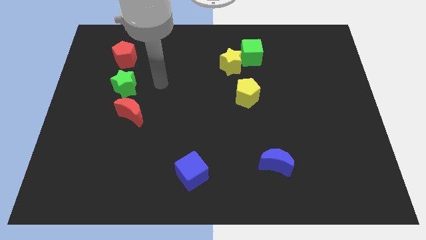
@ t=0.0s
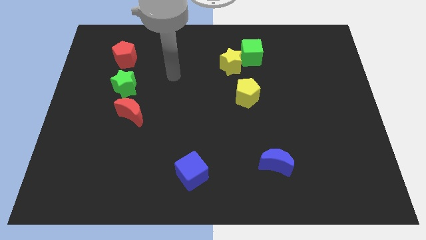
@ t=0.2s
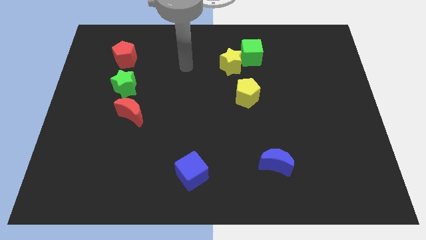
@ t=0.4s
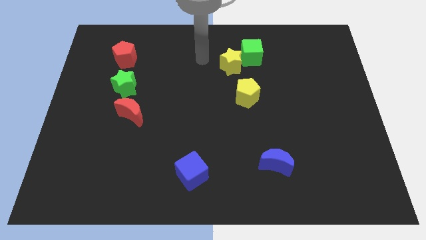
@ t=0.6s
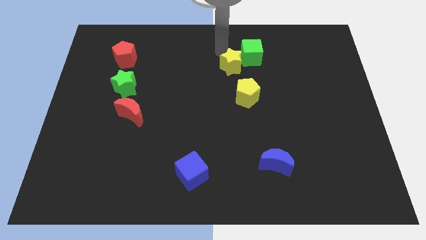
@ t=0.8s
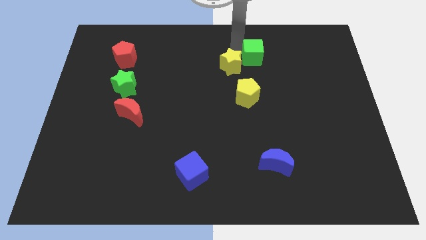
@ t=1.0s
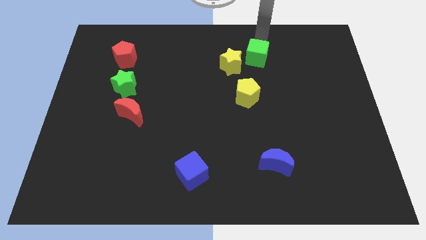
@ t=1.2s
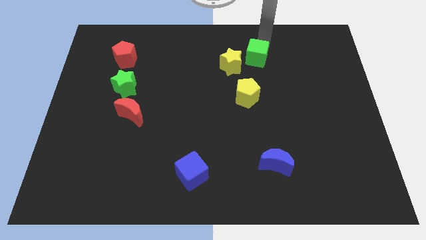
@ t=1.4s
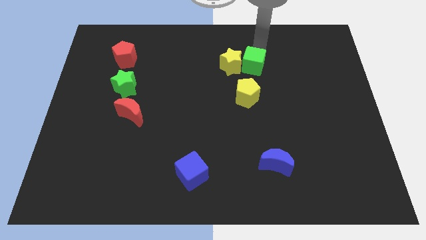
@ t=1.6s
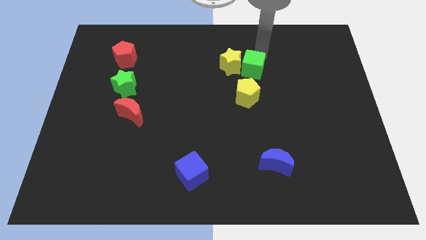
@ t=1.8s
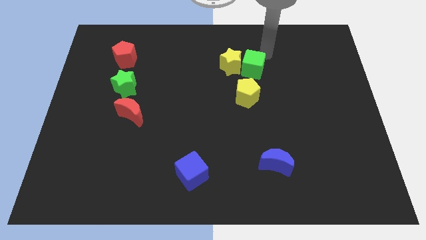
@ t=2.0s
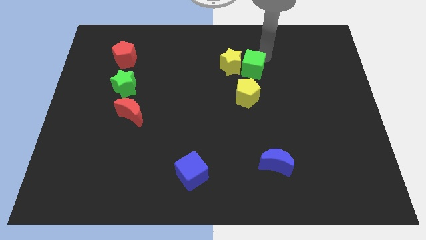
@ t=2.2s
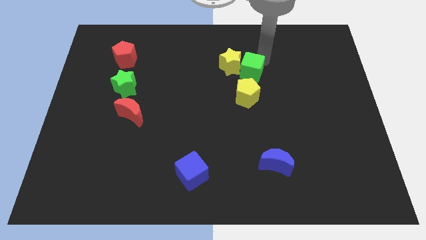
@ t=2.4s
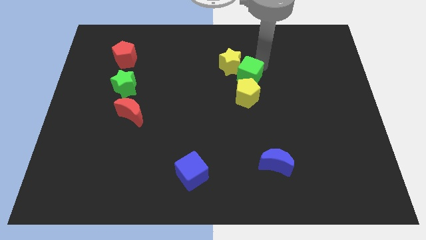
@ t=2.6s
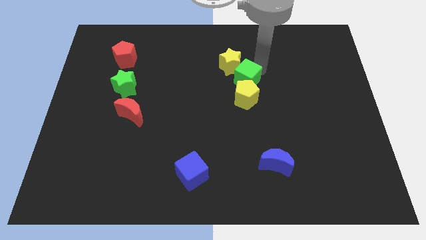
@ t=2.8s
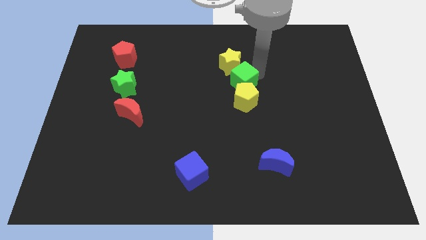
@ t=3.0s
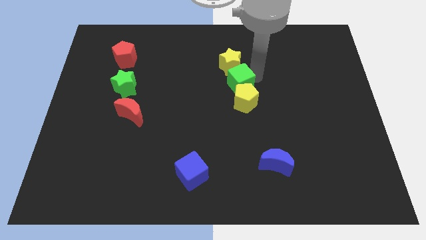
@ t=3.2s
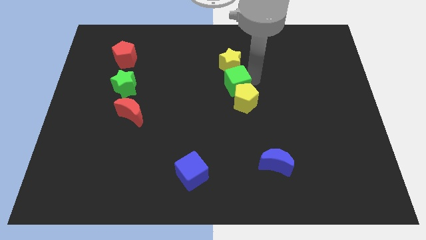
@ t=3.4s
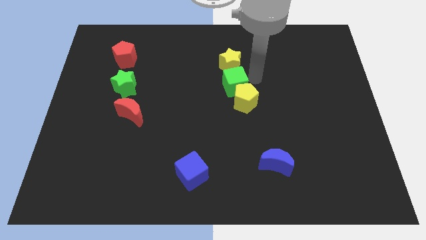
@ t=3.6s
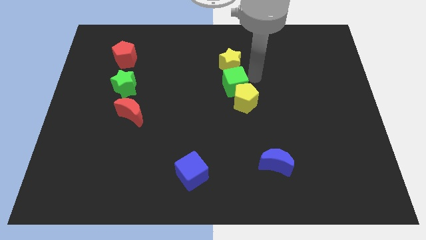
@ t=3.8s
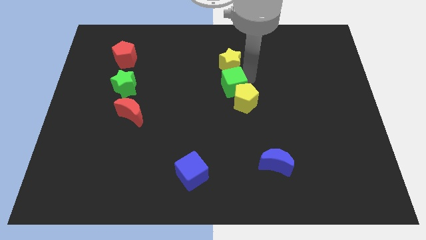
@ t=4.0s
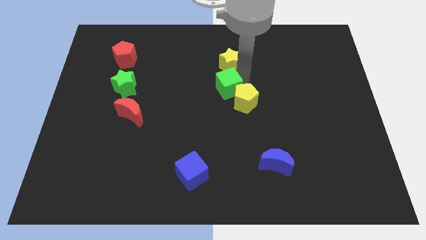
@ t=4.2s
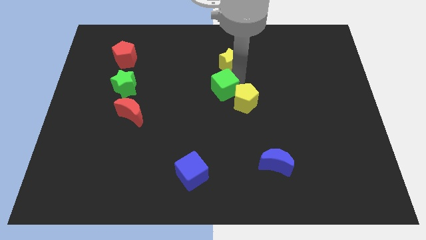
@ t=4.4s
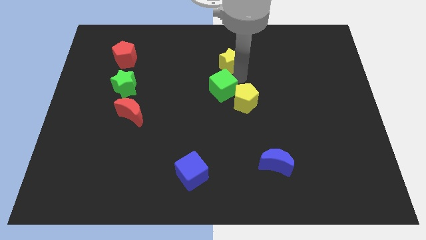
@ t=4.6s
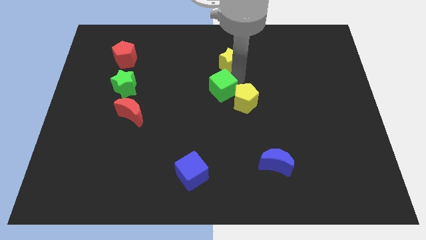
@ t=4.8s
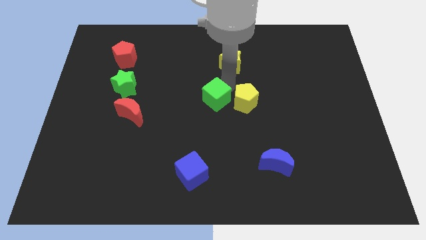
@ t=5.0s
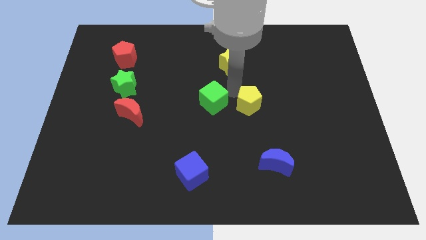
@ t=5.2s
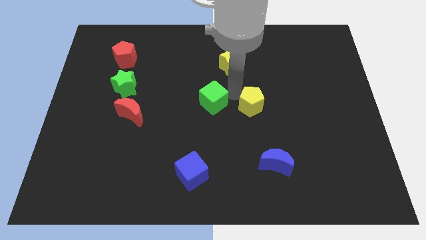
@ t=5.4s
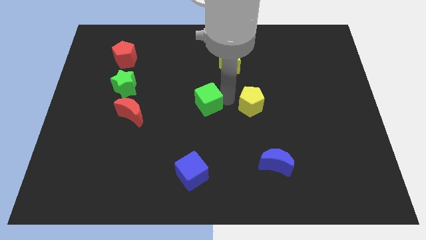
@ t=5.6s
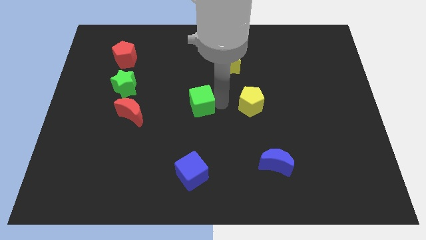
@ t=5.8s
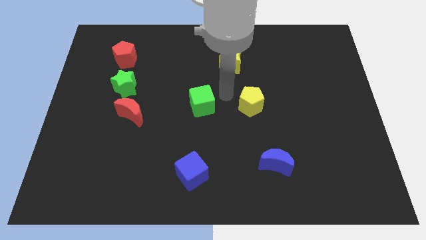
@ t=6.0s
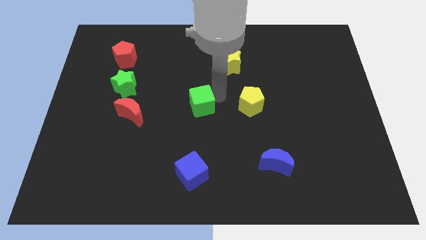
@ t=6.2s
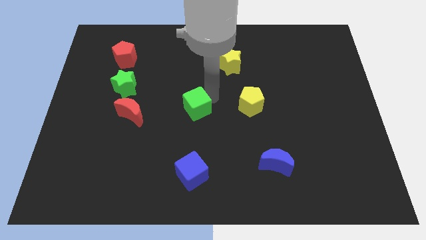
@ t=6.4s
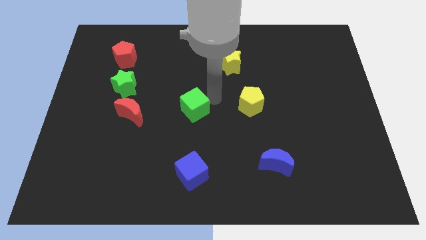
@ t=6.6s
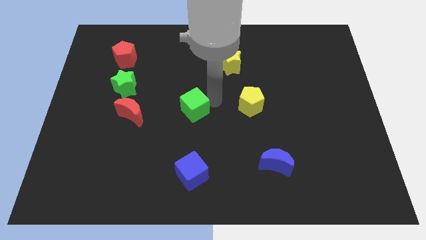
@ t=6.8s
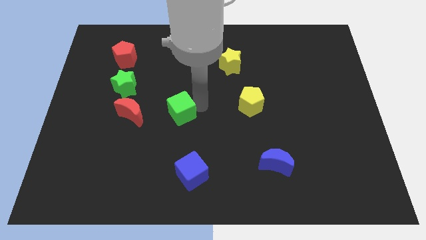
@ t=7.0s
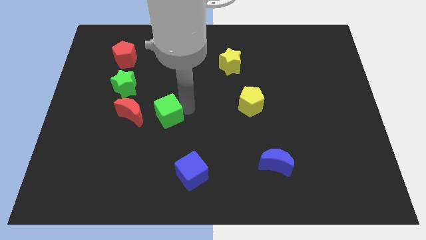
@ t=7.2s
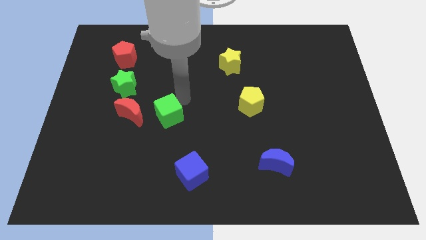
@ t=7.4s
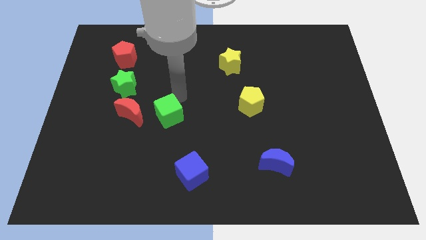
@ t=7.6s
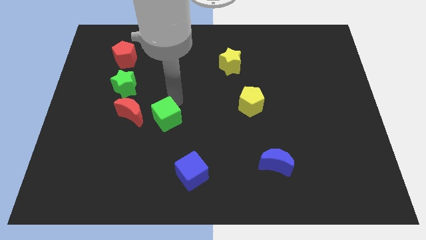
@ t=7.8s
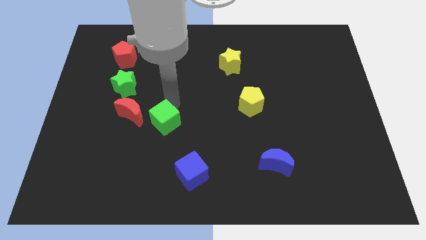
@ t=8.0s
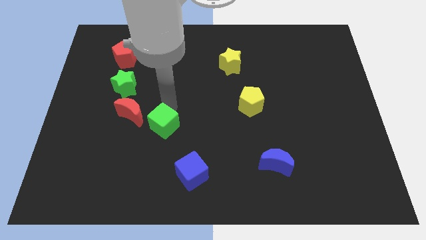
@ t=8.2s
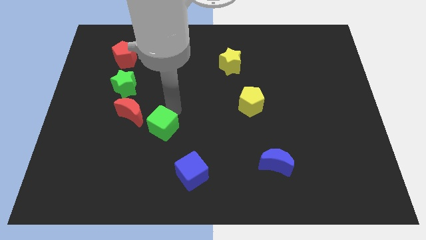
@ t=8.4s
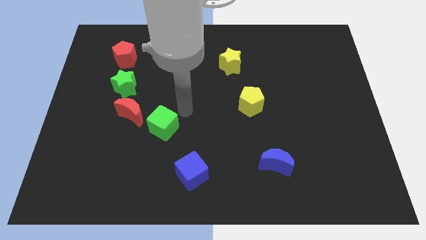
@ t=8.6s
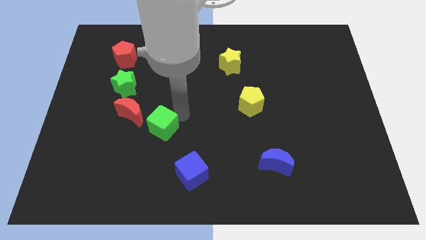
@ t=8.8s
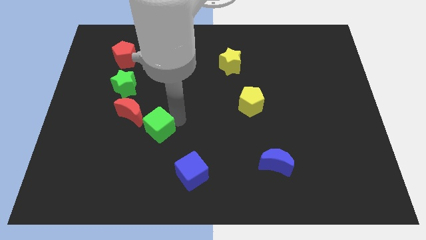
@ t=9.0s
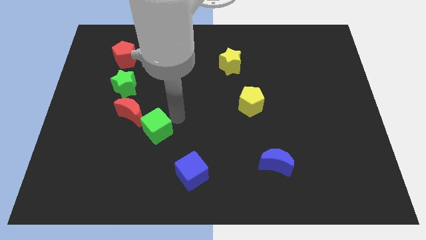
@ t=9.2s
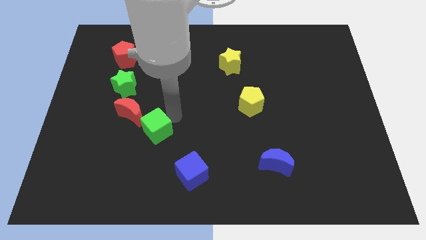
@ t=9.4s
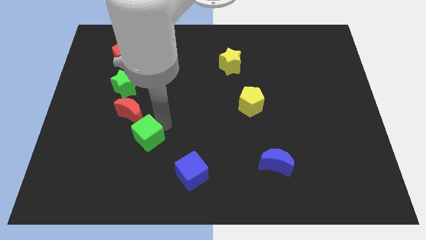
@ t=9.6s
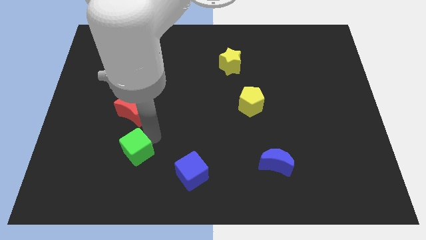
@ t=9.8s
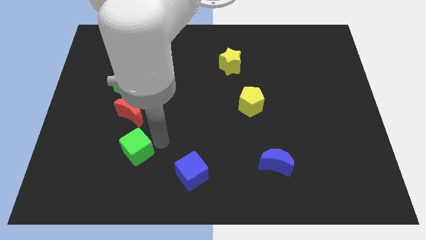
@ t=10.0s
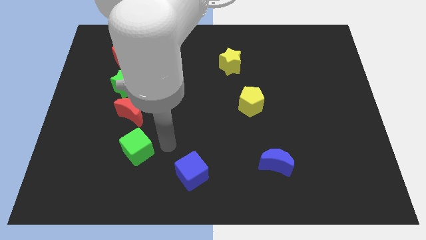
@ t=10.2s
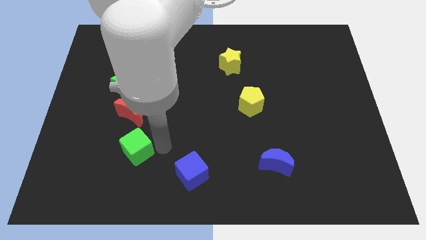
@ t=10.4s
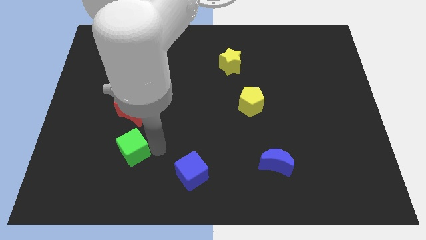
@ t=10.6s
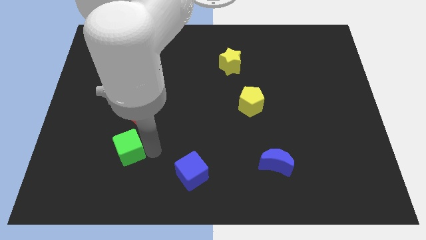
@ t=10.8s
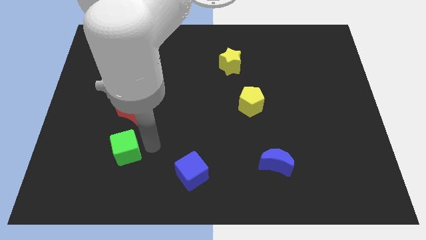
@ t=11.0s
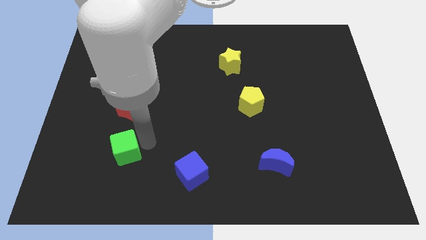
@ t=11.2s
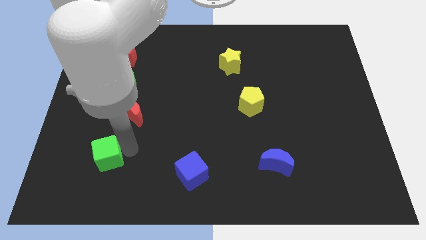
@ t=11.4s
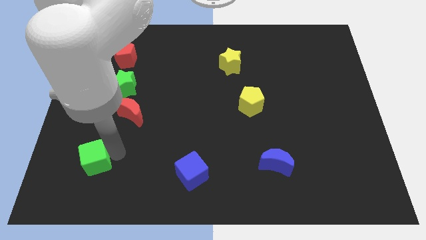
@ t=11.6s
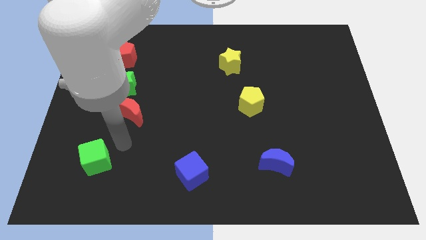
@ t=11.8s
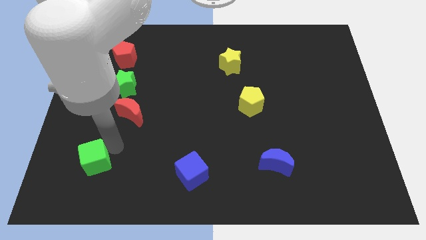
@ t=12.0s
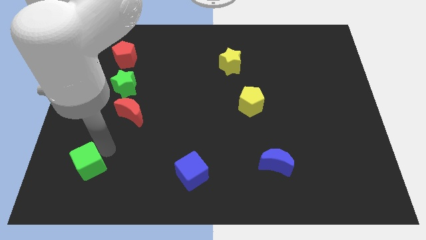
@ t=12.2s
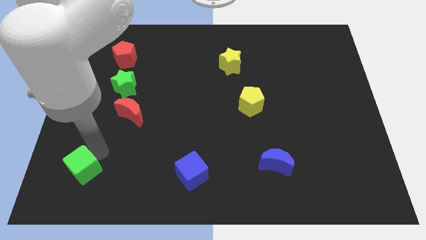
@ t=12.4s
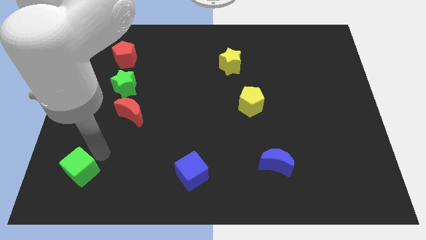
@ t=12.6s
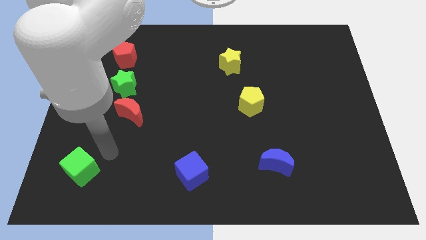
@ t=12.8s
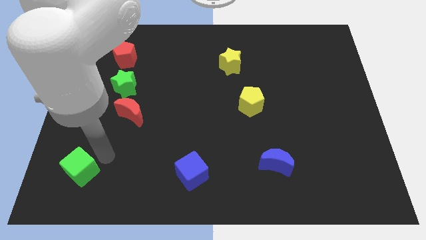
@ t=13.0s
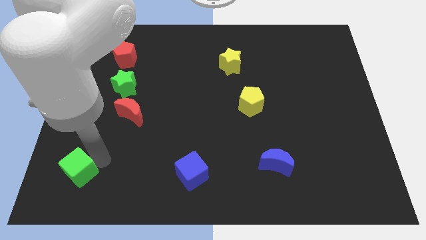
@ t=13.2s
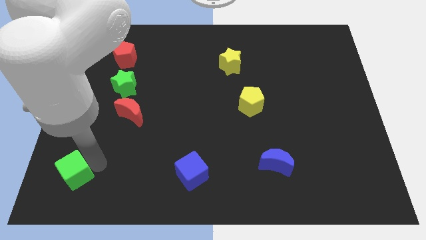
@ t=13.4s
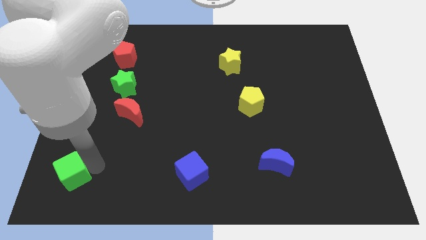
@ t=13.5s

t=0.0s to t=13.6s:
push the green cube to the bottom left

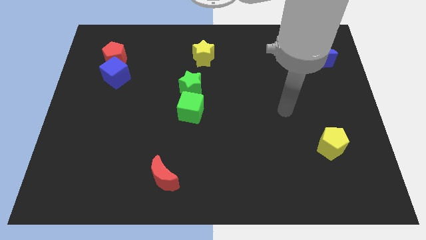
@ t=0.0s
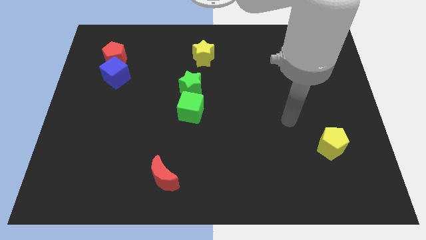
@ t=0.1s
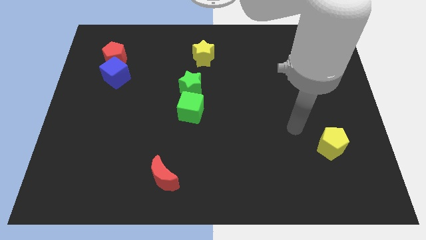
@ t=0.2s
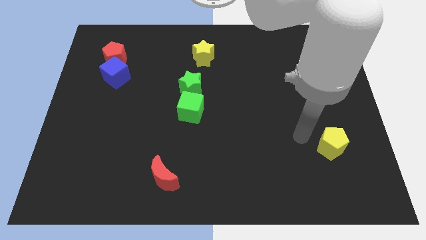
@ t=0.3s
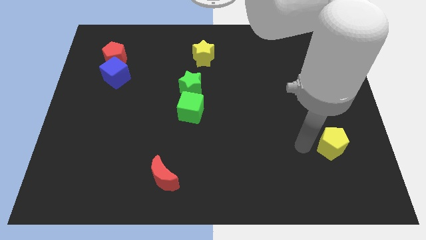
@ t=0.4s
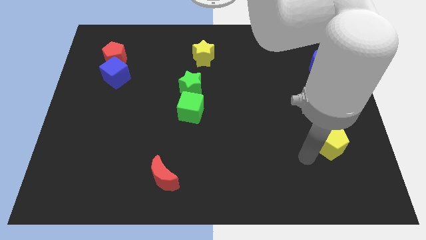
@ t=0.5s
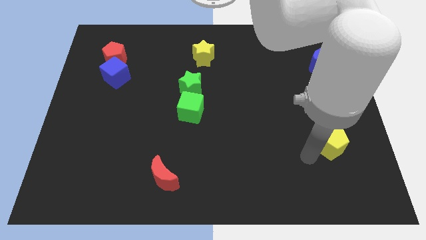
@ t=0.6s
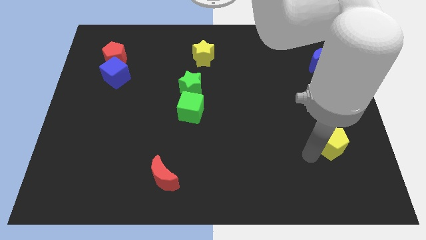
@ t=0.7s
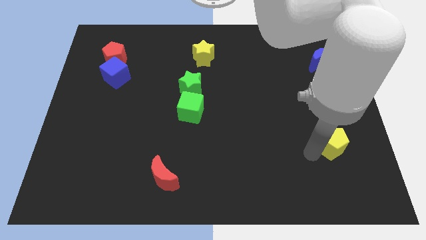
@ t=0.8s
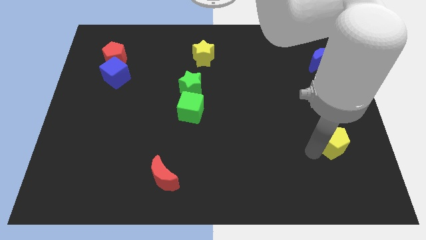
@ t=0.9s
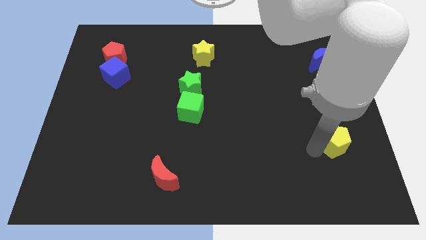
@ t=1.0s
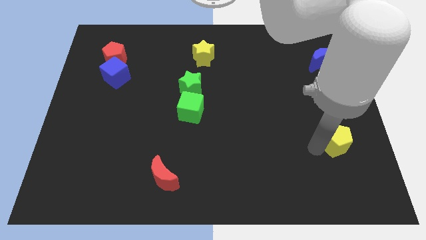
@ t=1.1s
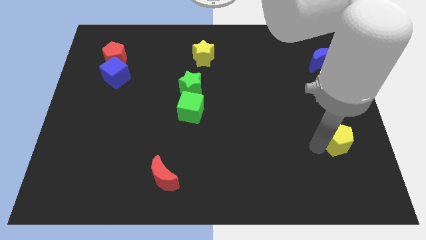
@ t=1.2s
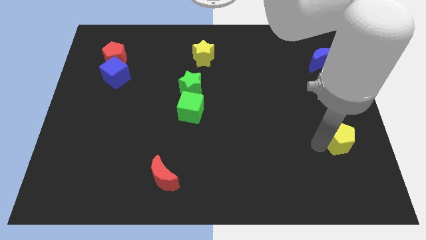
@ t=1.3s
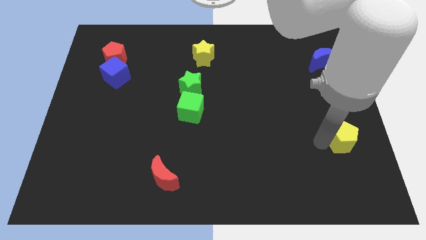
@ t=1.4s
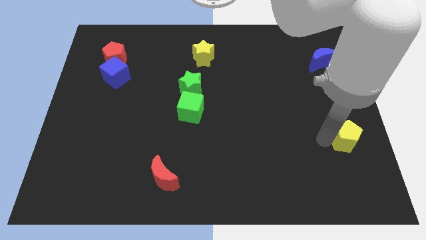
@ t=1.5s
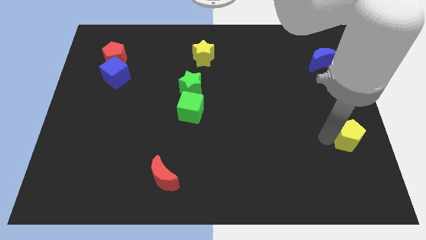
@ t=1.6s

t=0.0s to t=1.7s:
put the yellow pentagon to the right side of the board
